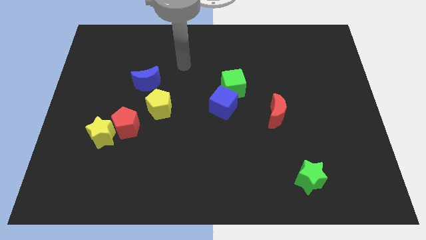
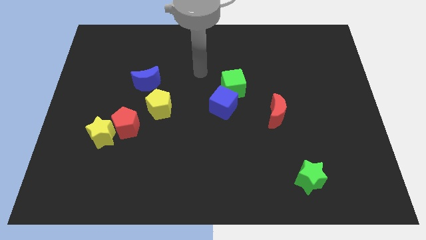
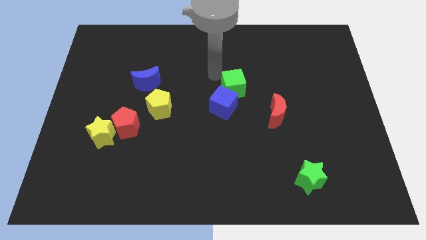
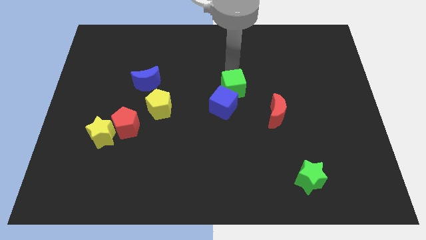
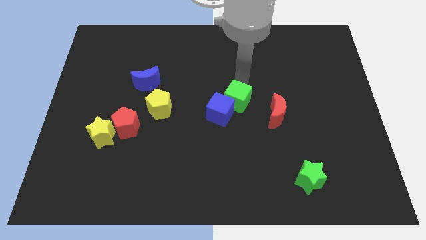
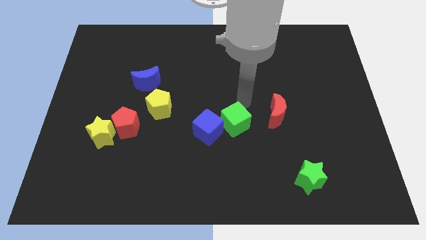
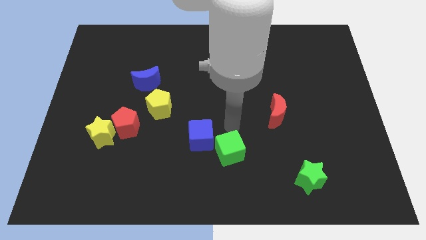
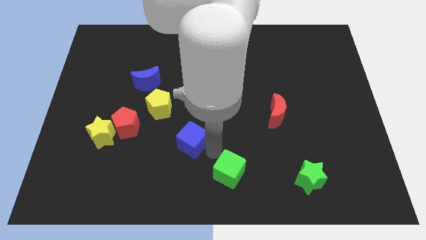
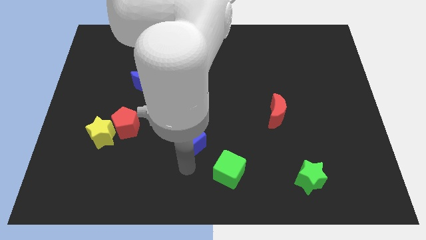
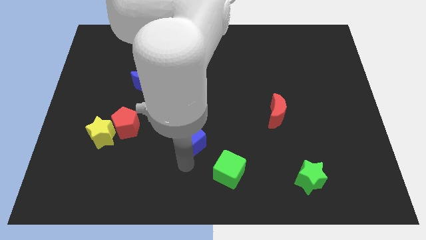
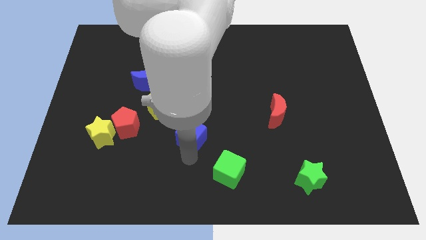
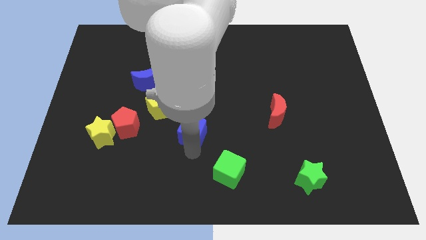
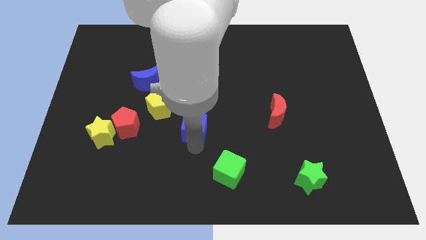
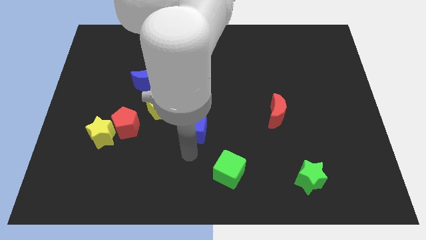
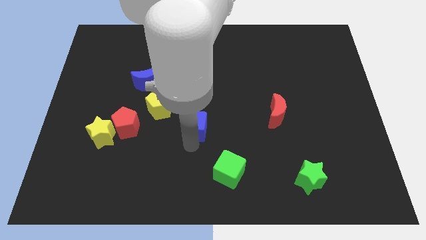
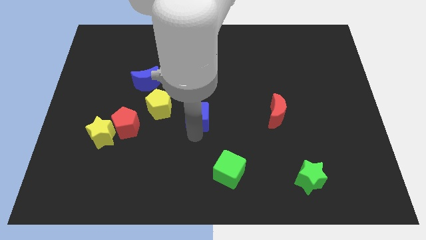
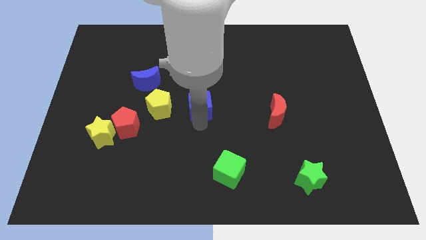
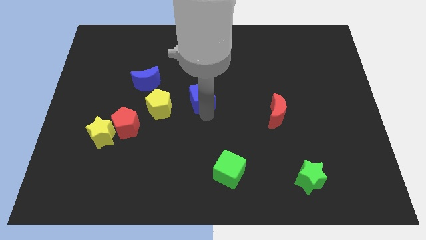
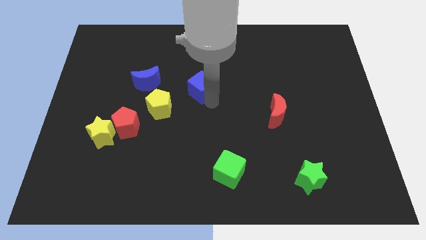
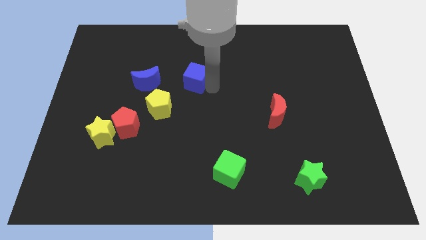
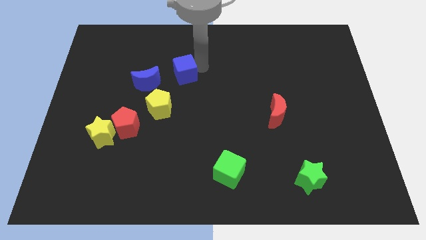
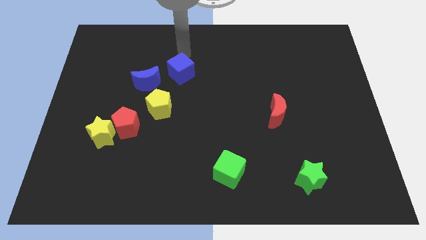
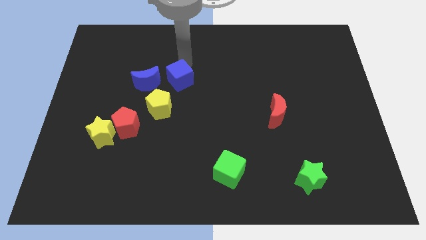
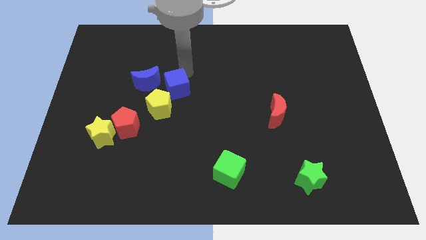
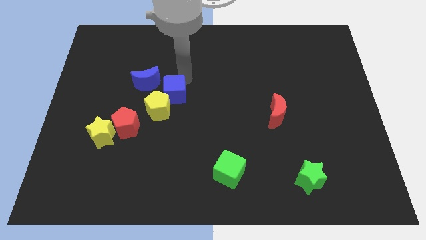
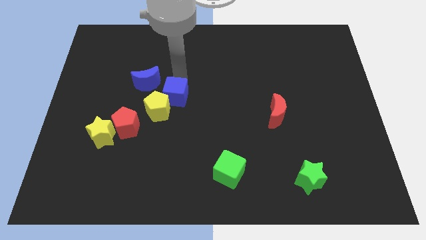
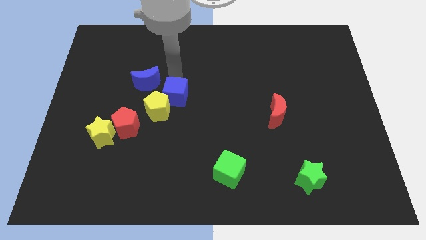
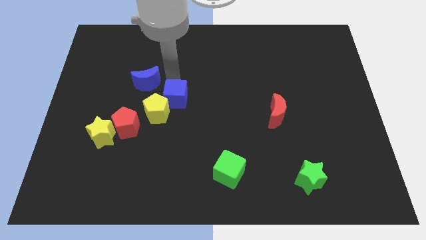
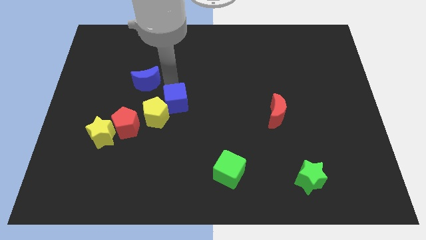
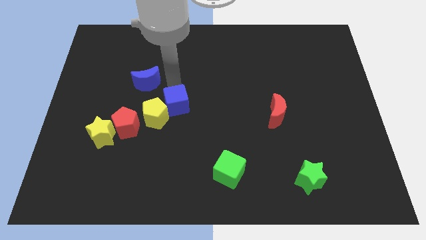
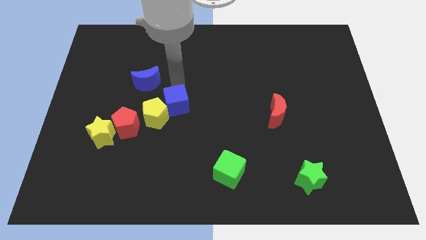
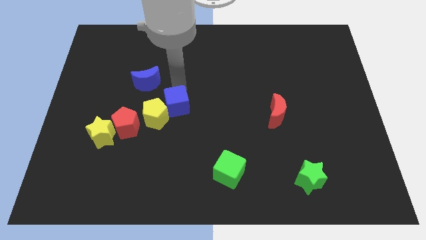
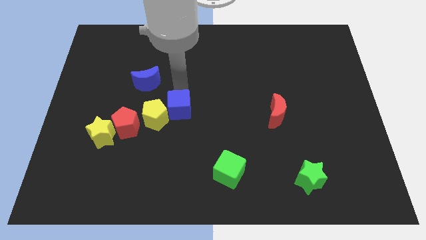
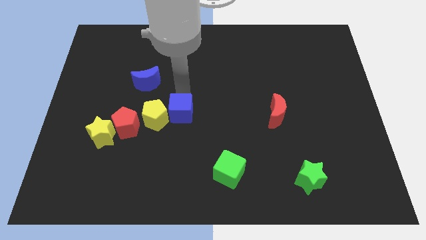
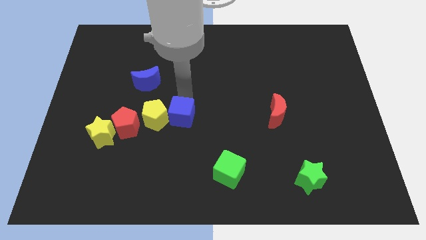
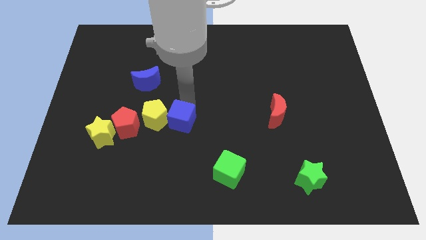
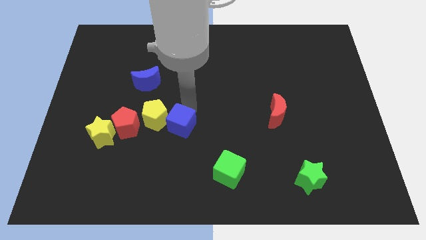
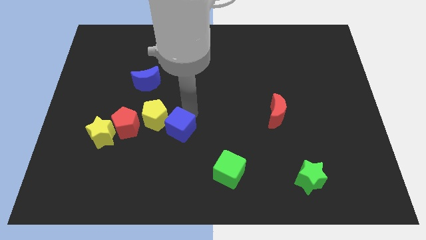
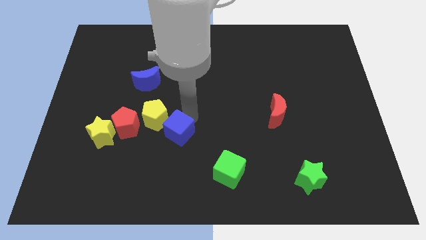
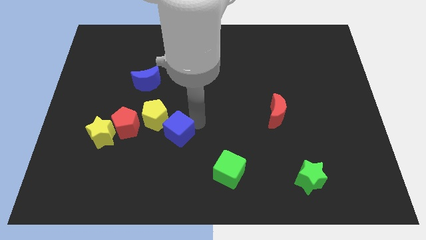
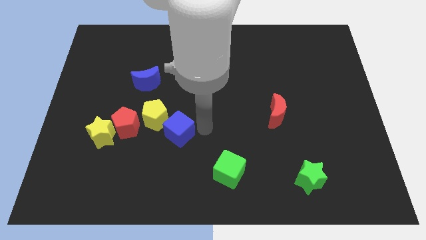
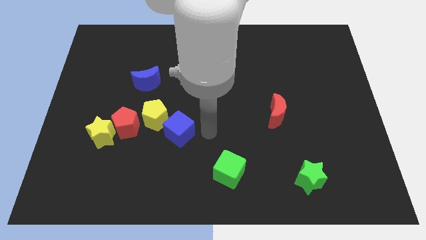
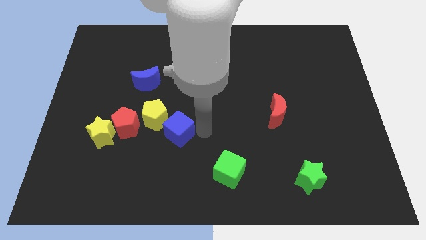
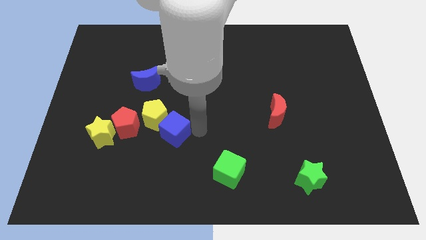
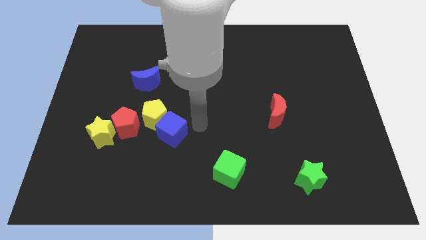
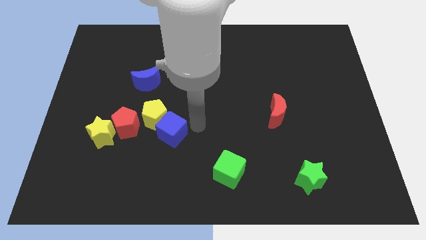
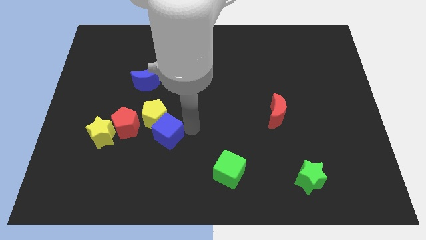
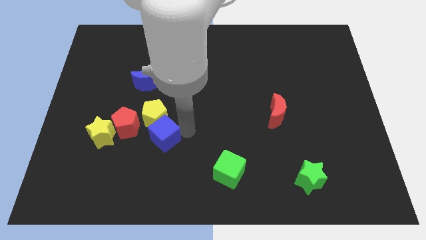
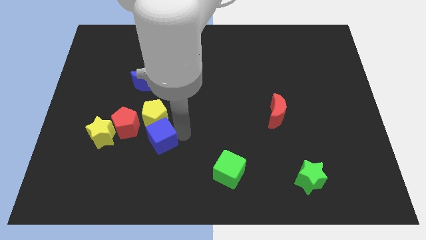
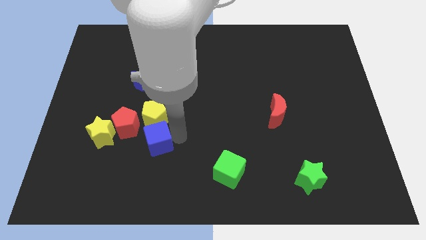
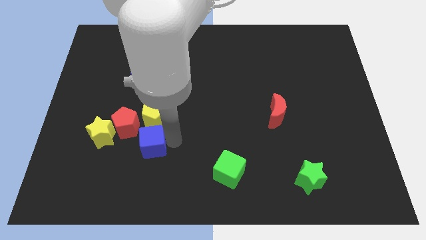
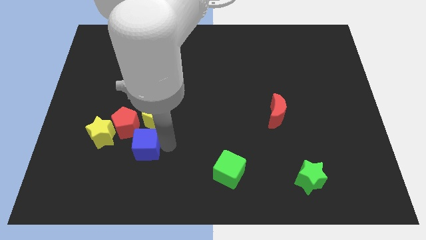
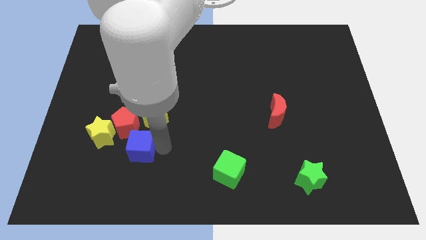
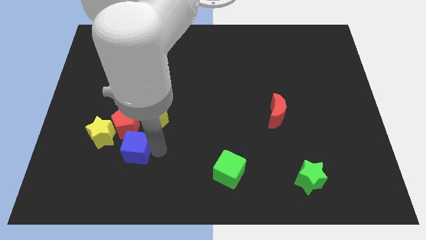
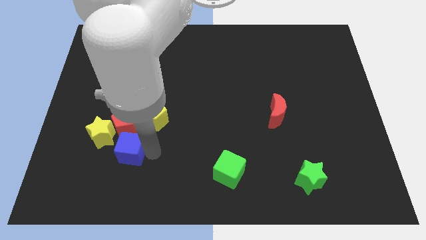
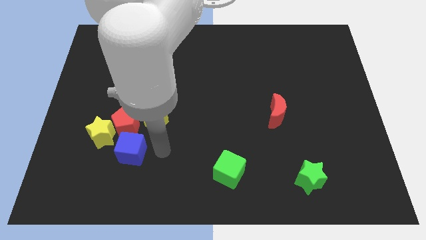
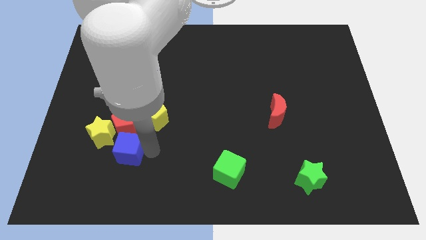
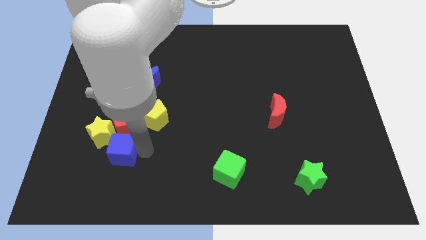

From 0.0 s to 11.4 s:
put the blue cube to the bottom left side of the red pentagon
